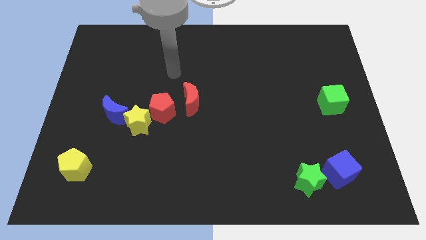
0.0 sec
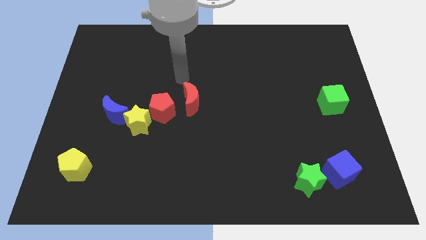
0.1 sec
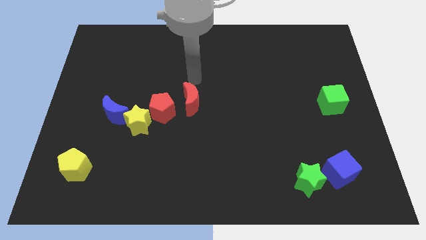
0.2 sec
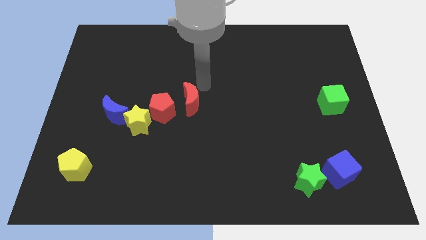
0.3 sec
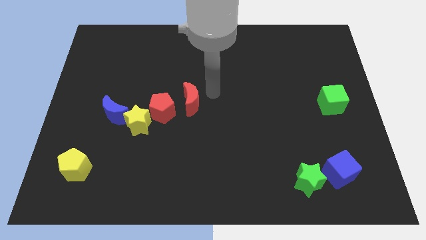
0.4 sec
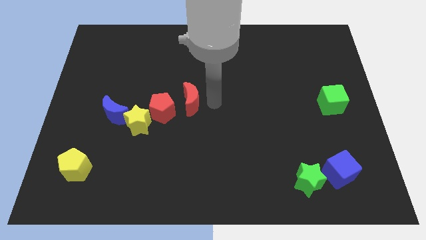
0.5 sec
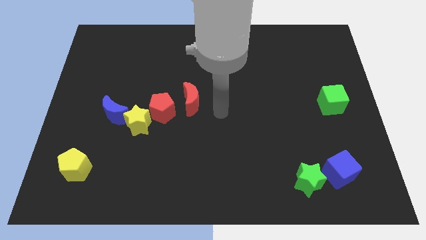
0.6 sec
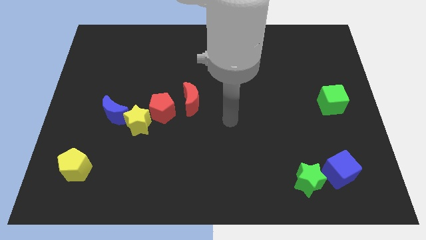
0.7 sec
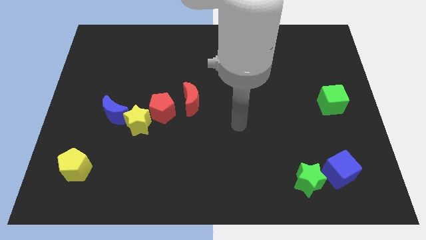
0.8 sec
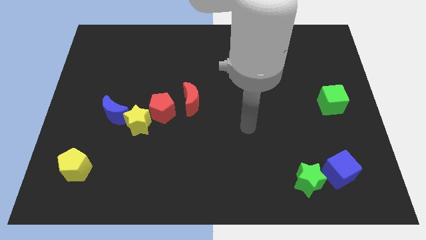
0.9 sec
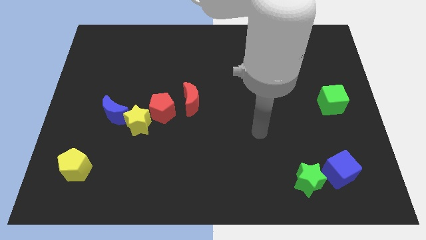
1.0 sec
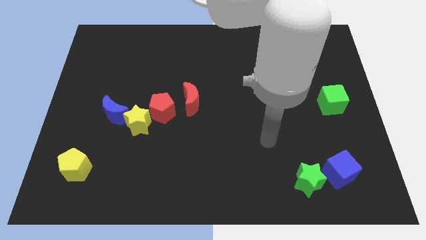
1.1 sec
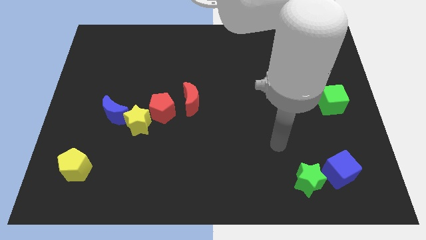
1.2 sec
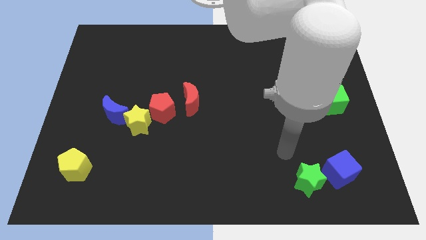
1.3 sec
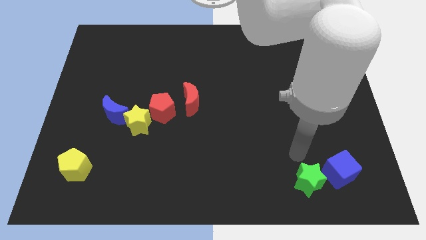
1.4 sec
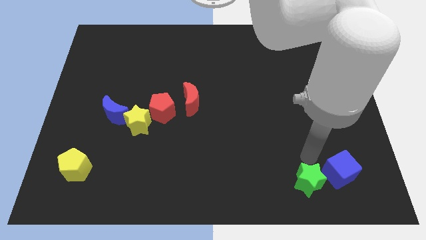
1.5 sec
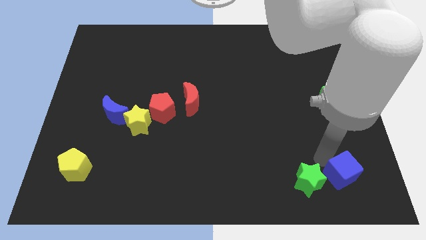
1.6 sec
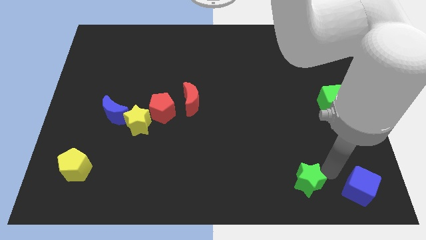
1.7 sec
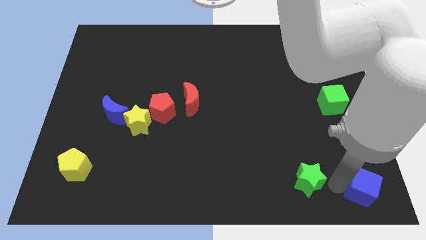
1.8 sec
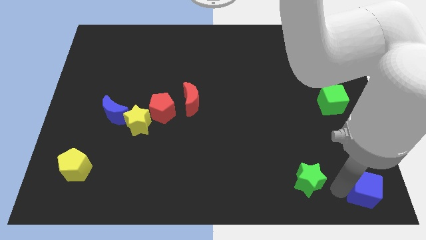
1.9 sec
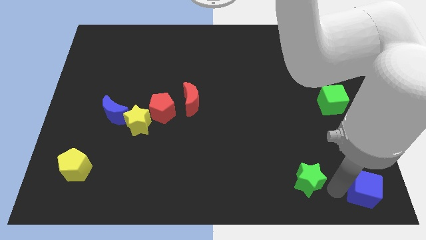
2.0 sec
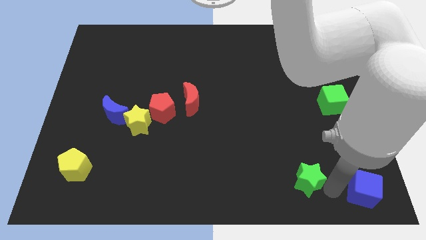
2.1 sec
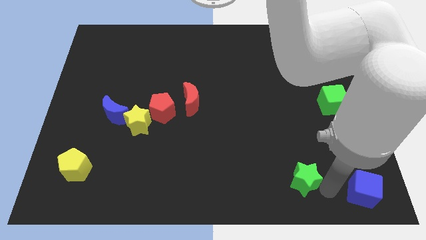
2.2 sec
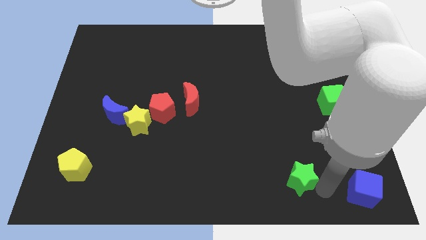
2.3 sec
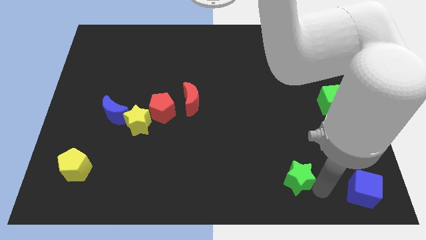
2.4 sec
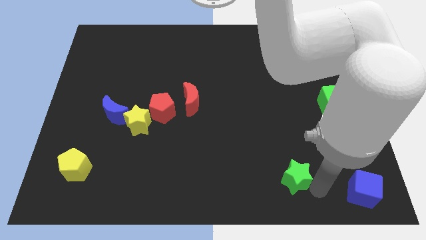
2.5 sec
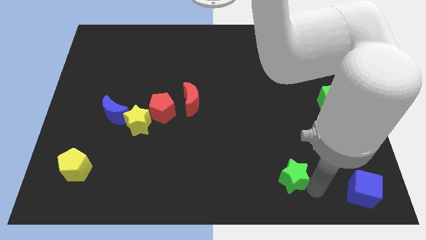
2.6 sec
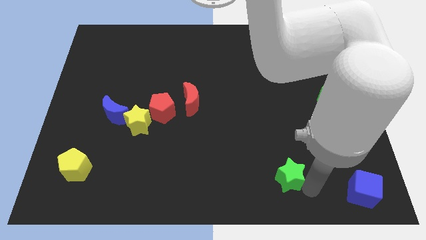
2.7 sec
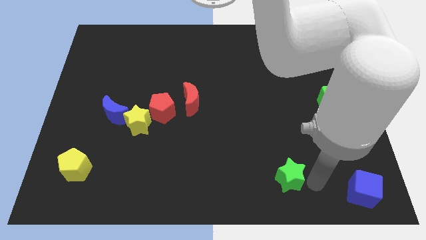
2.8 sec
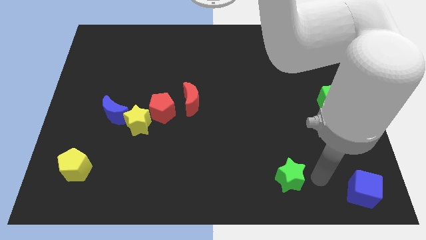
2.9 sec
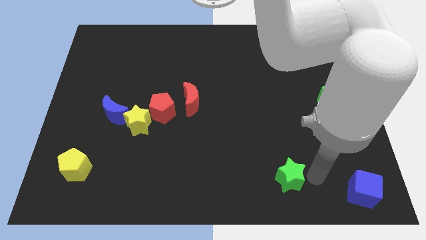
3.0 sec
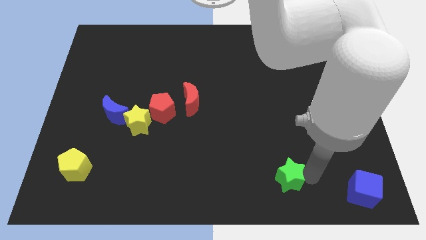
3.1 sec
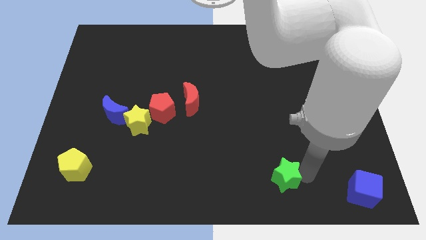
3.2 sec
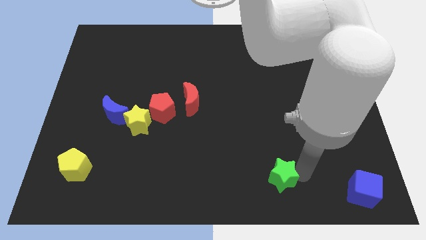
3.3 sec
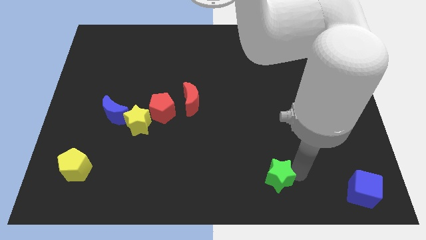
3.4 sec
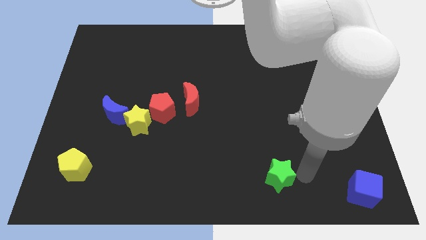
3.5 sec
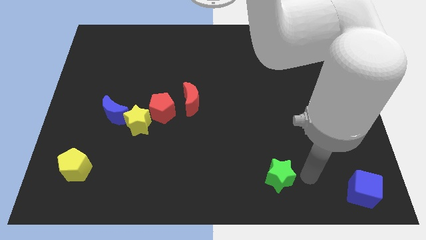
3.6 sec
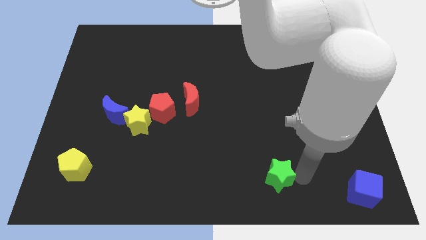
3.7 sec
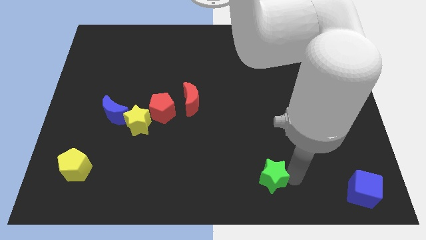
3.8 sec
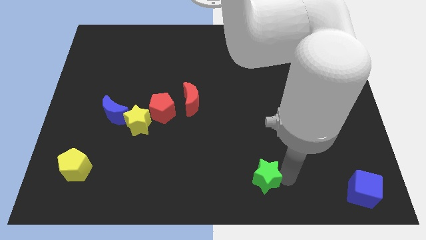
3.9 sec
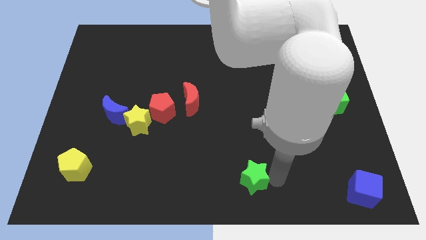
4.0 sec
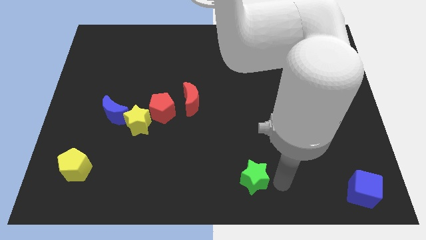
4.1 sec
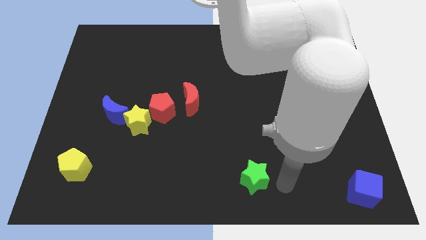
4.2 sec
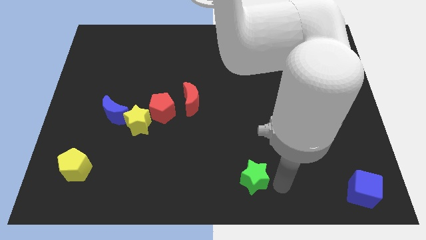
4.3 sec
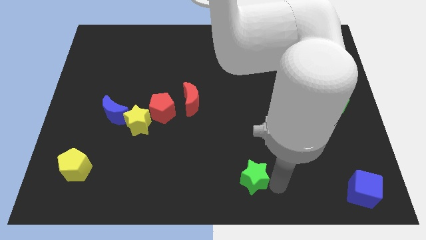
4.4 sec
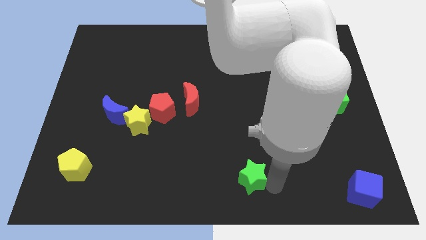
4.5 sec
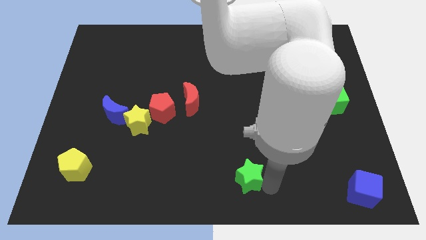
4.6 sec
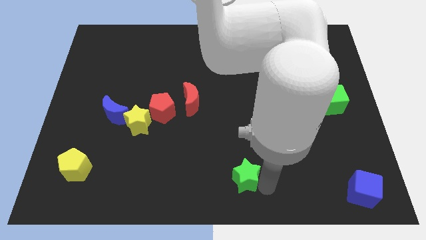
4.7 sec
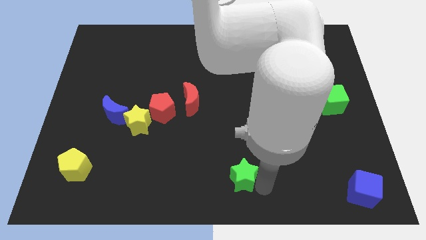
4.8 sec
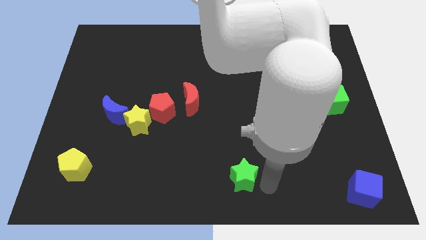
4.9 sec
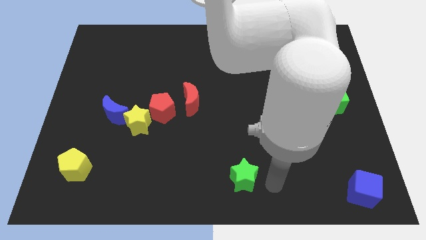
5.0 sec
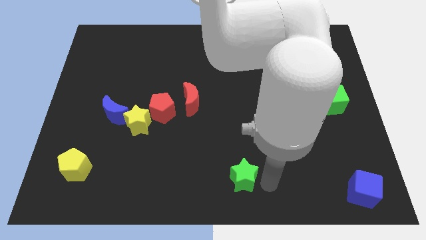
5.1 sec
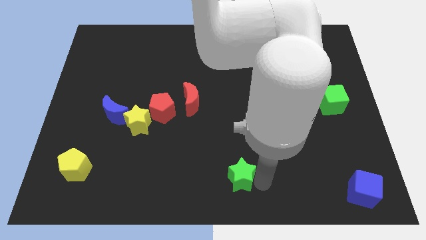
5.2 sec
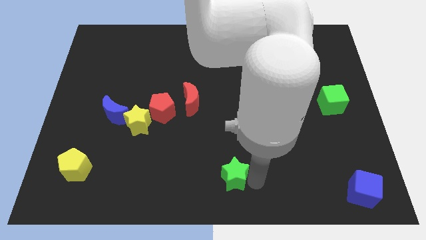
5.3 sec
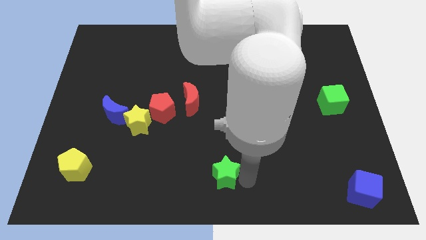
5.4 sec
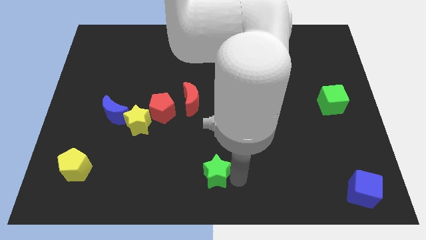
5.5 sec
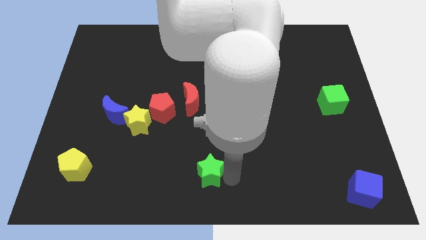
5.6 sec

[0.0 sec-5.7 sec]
slide the green star left

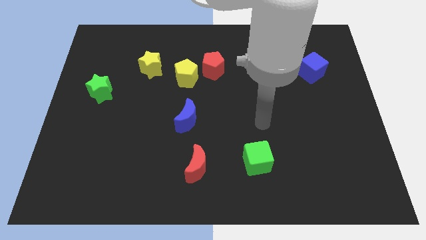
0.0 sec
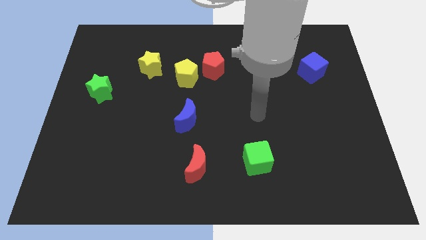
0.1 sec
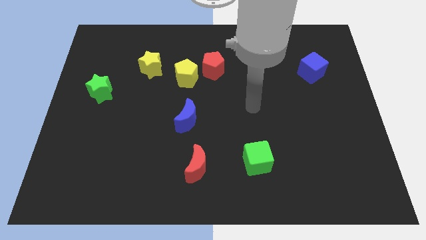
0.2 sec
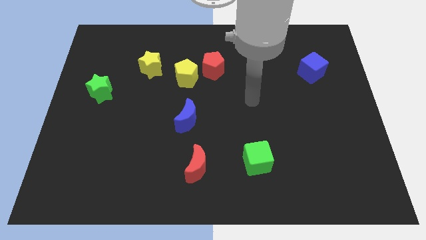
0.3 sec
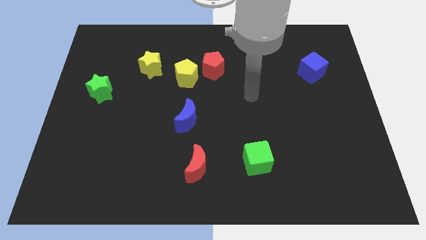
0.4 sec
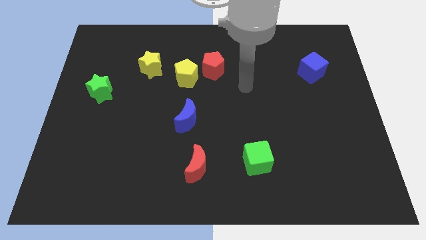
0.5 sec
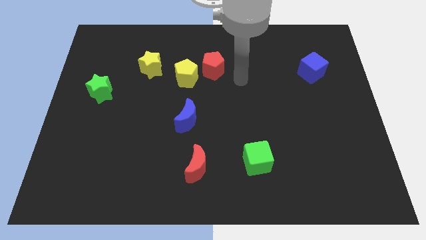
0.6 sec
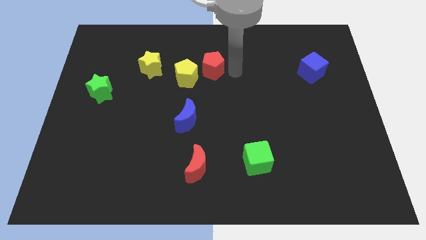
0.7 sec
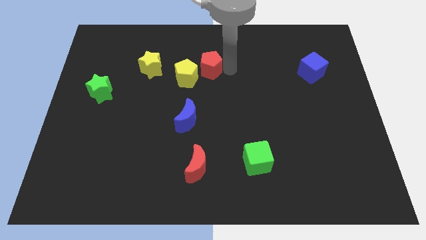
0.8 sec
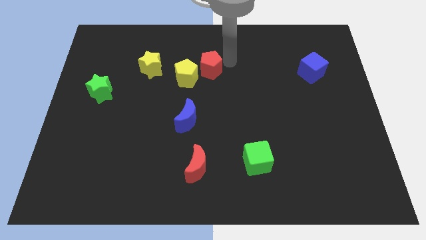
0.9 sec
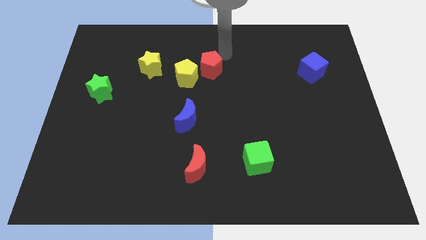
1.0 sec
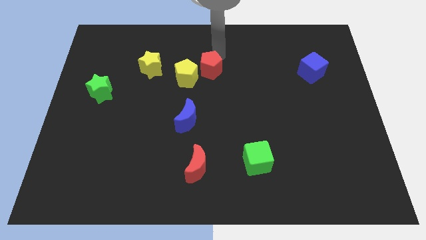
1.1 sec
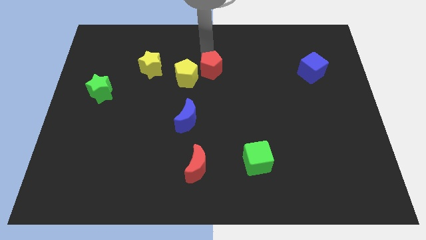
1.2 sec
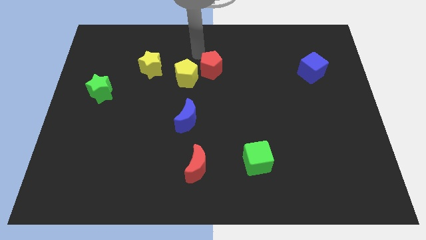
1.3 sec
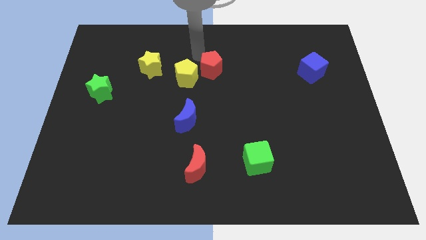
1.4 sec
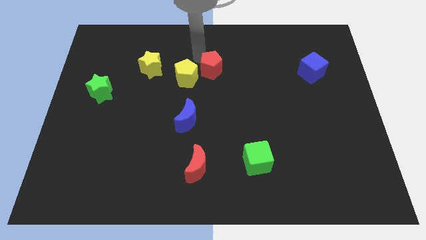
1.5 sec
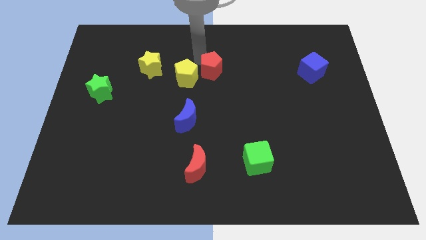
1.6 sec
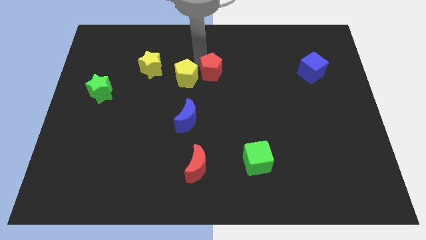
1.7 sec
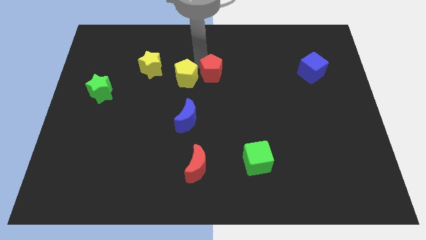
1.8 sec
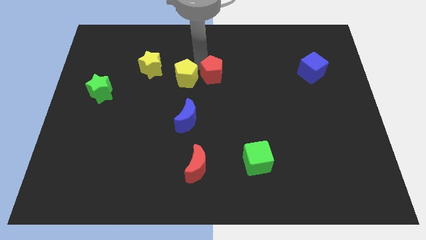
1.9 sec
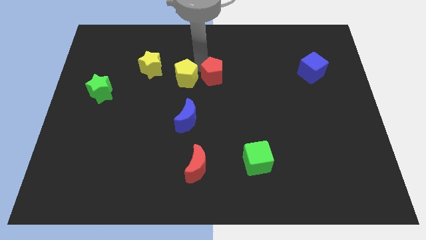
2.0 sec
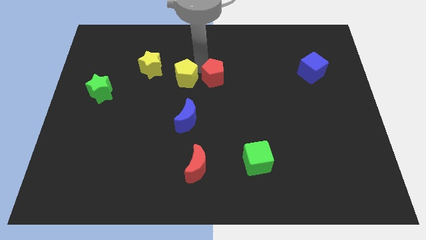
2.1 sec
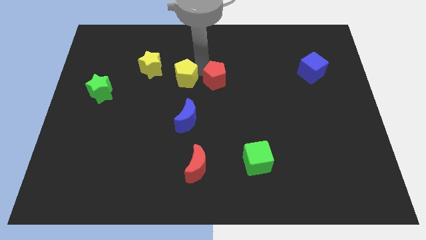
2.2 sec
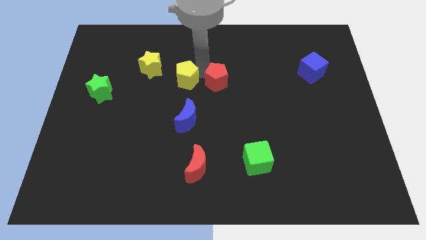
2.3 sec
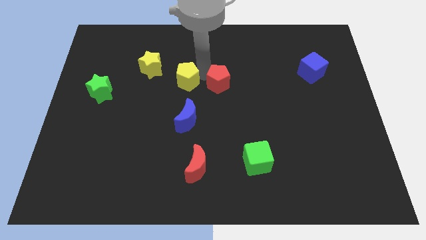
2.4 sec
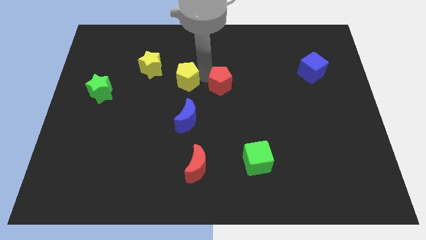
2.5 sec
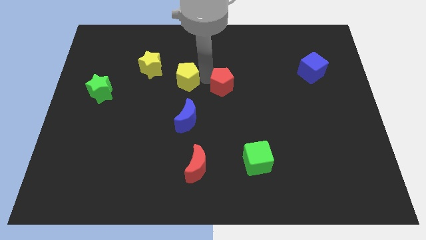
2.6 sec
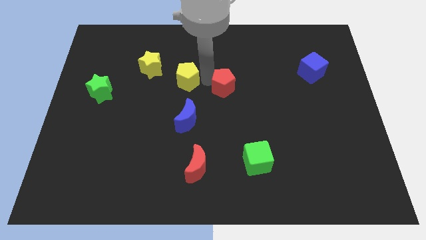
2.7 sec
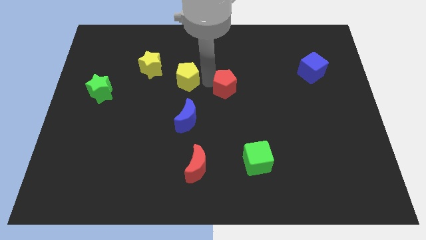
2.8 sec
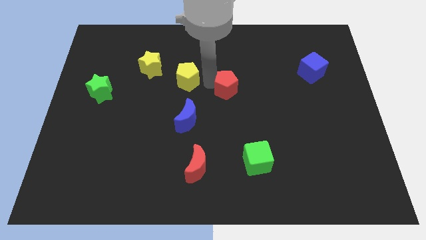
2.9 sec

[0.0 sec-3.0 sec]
push the red pentagon down and right diagonally a little
